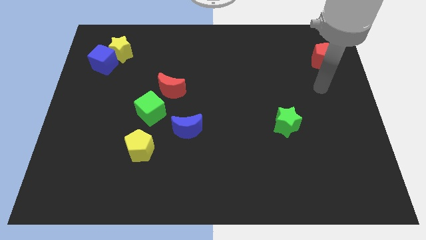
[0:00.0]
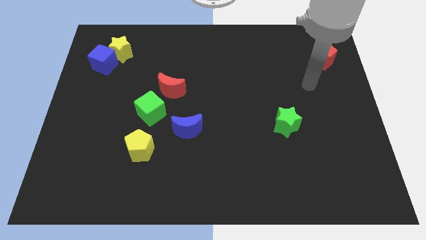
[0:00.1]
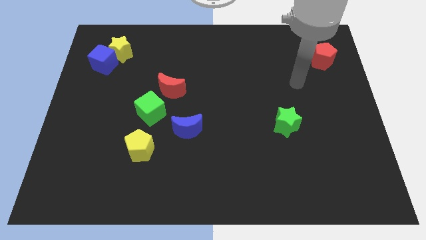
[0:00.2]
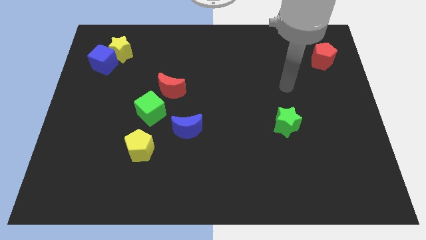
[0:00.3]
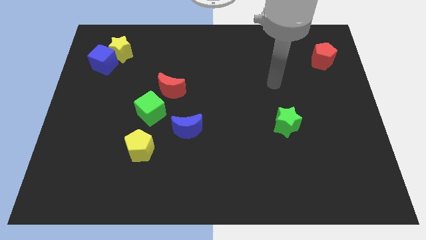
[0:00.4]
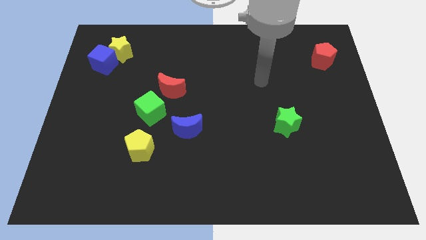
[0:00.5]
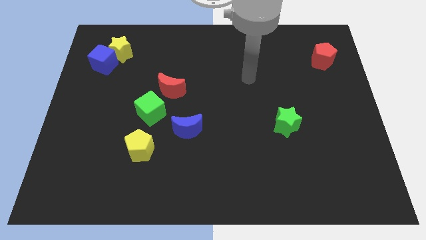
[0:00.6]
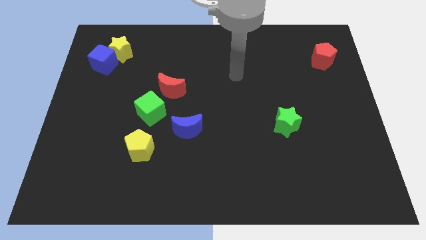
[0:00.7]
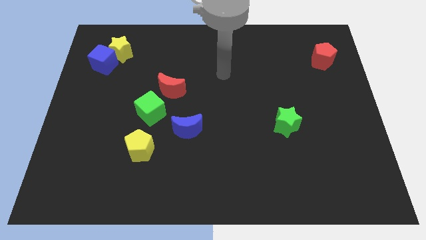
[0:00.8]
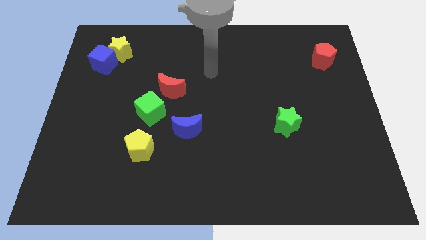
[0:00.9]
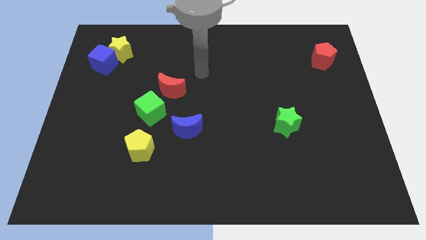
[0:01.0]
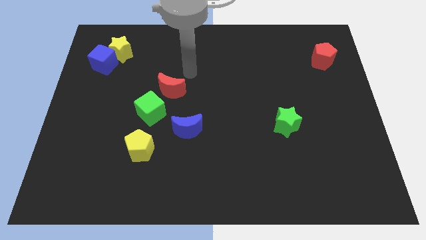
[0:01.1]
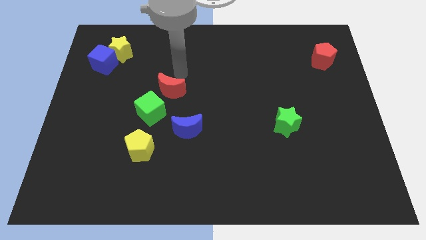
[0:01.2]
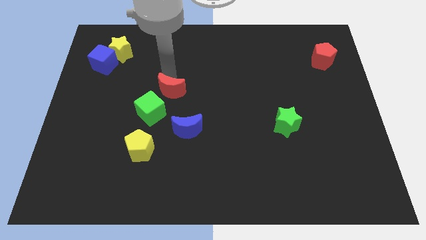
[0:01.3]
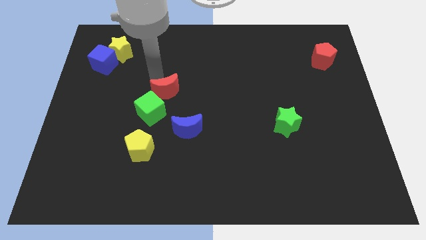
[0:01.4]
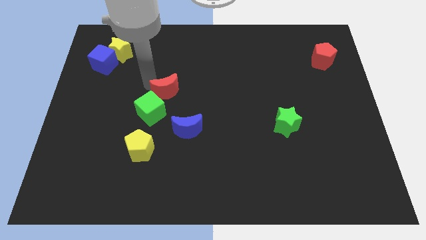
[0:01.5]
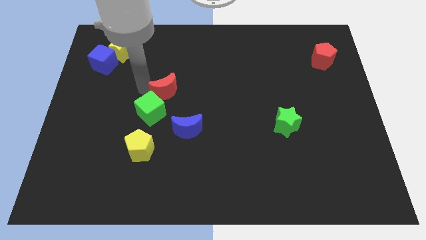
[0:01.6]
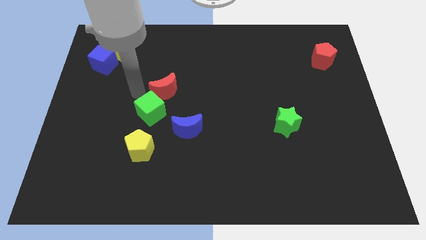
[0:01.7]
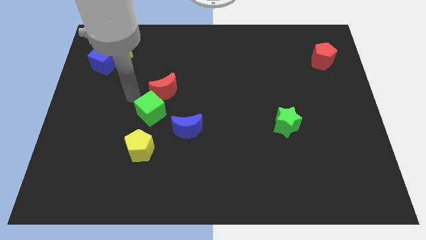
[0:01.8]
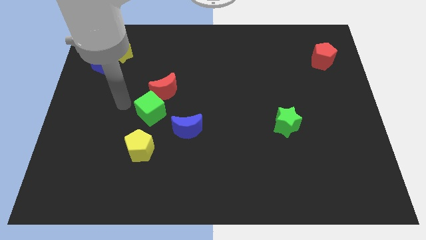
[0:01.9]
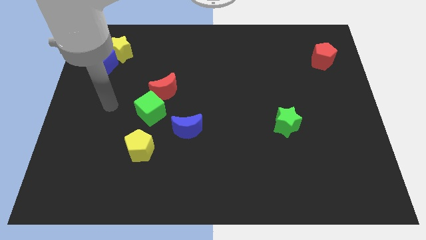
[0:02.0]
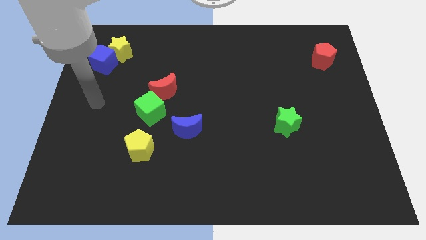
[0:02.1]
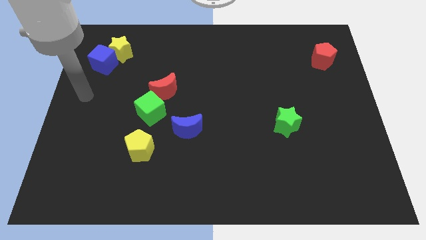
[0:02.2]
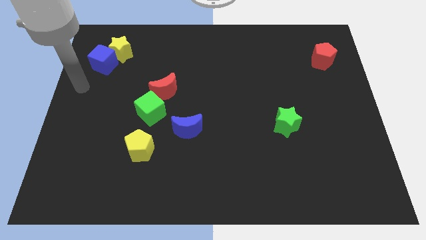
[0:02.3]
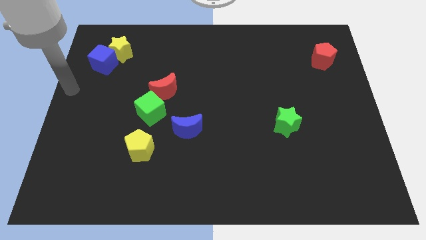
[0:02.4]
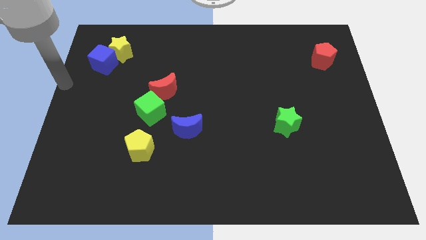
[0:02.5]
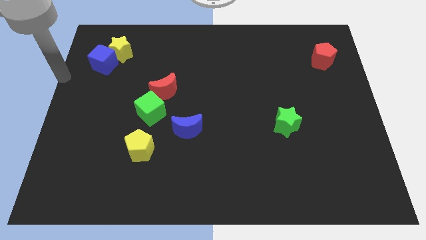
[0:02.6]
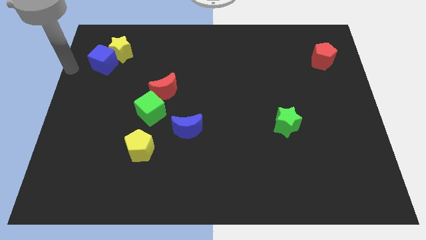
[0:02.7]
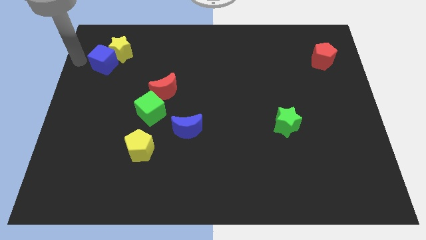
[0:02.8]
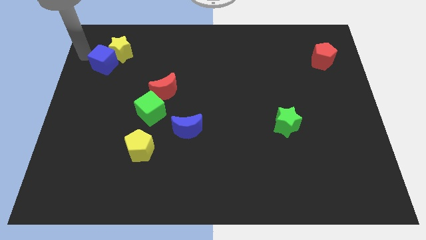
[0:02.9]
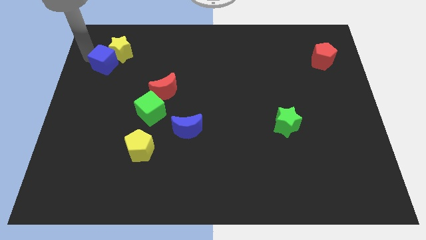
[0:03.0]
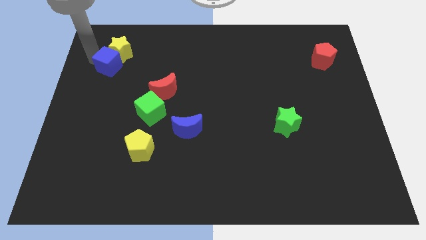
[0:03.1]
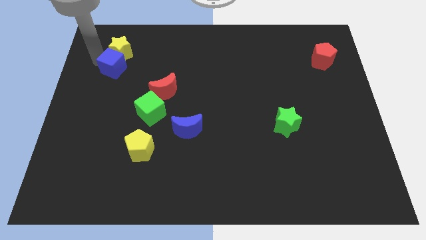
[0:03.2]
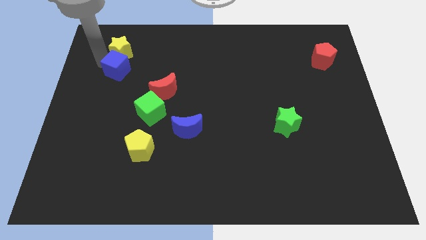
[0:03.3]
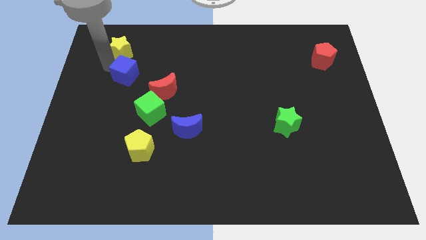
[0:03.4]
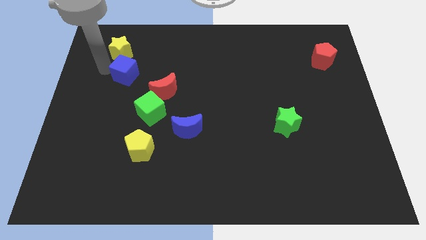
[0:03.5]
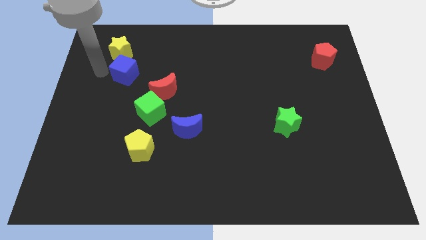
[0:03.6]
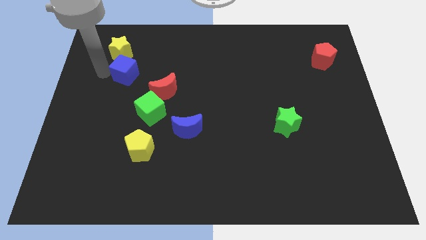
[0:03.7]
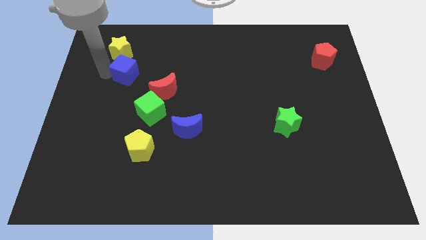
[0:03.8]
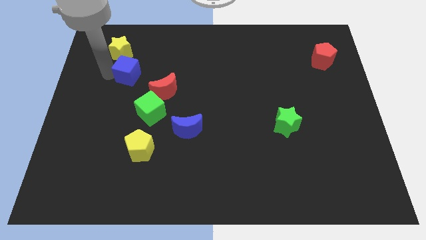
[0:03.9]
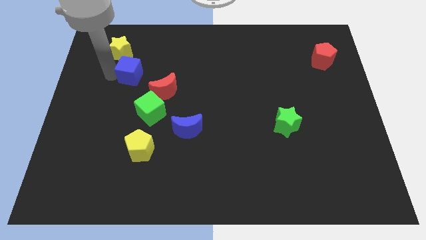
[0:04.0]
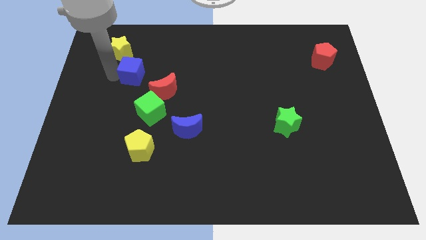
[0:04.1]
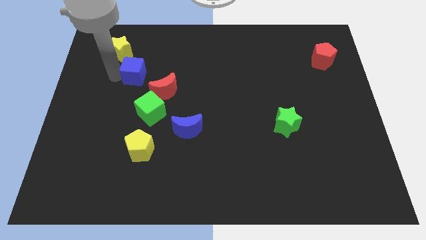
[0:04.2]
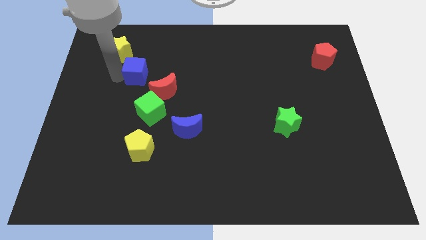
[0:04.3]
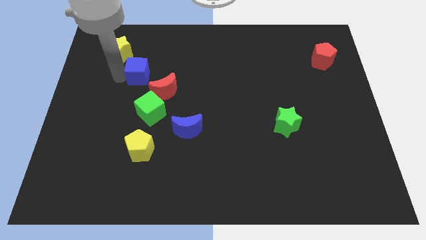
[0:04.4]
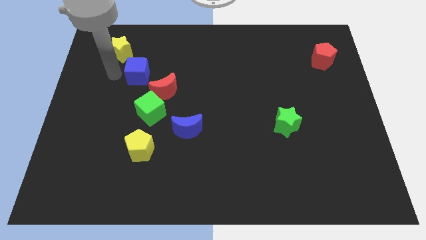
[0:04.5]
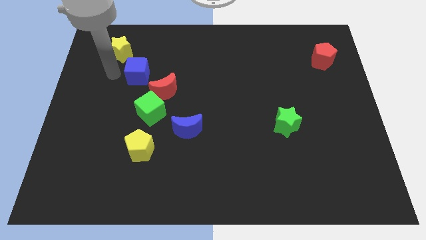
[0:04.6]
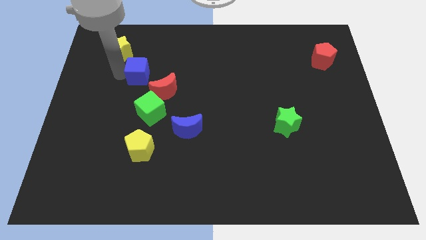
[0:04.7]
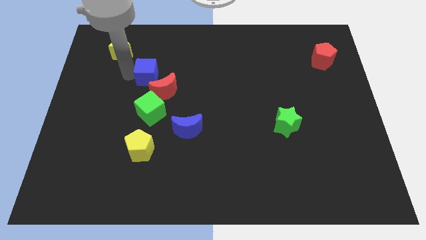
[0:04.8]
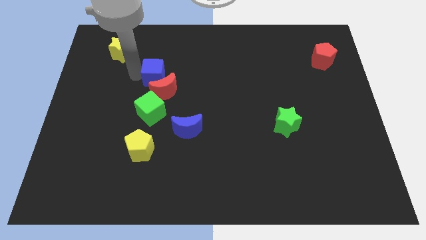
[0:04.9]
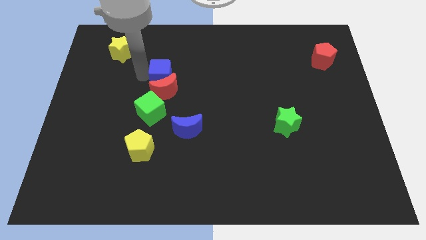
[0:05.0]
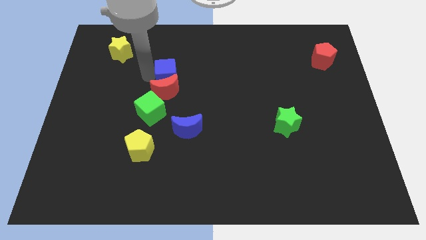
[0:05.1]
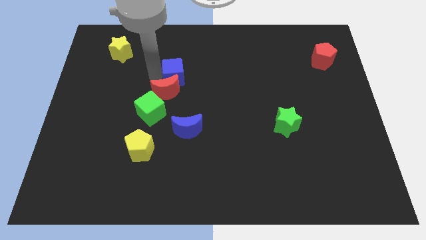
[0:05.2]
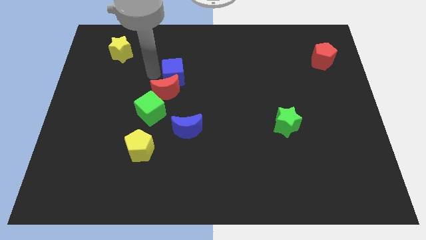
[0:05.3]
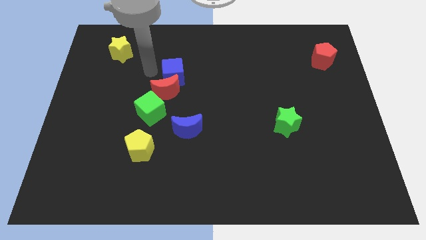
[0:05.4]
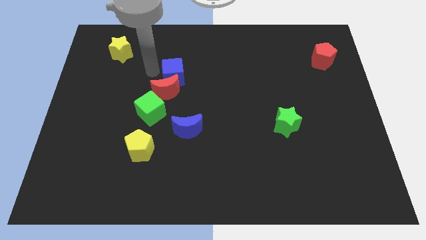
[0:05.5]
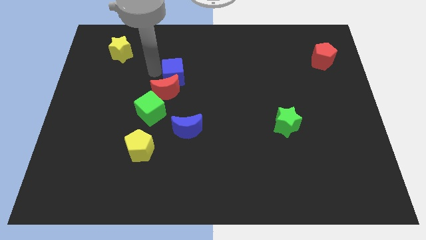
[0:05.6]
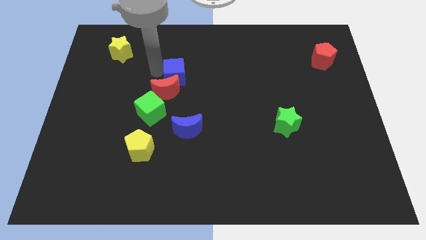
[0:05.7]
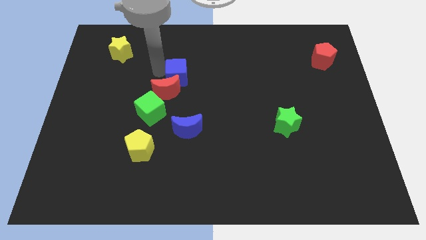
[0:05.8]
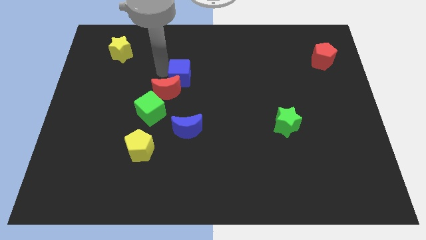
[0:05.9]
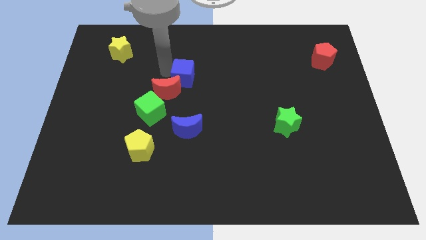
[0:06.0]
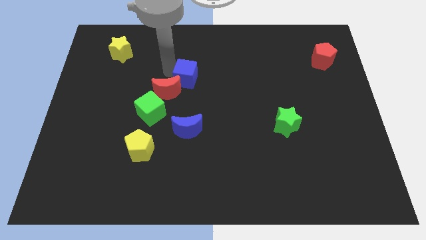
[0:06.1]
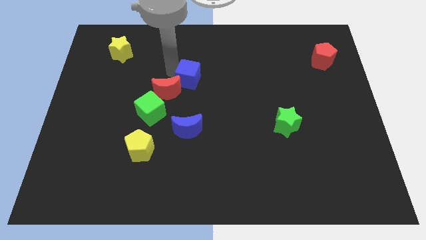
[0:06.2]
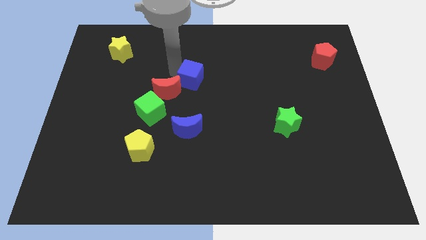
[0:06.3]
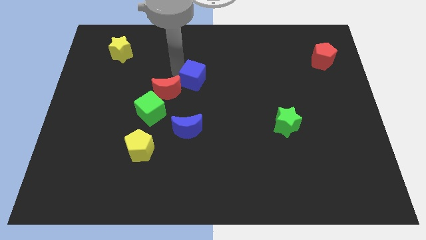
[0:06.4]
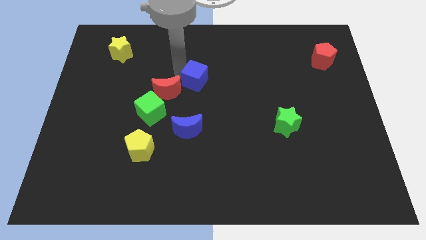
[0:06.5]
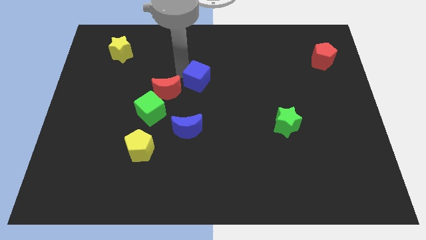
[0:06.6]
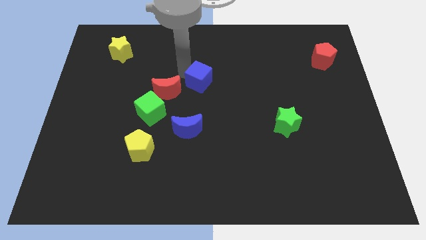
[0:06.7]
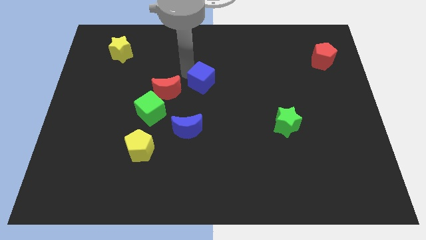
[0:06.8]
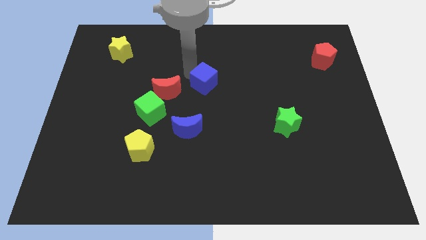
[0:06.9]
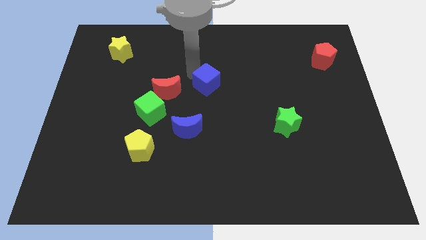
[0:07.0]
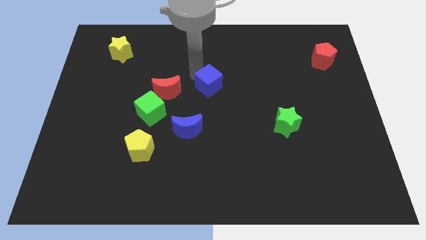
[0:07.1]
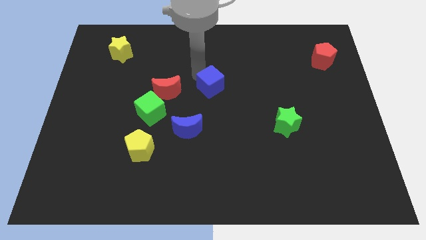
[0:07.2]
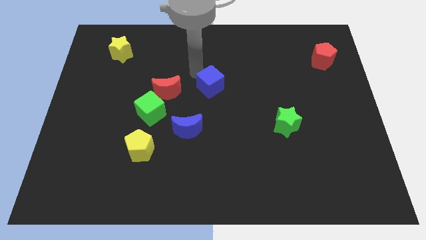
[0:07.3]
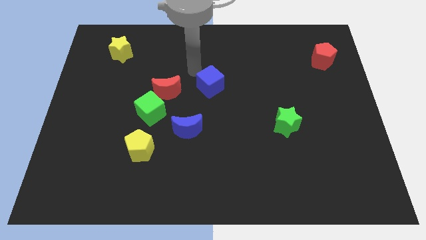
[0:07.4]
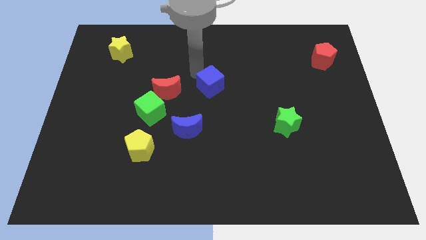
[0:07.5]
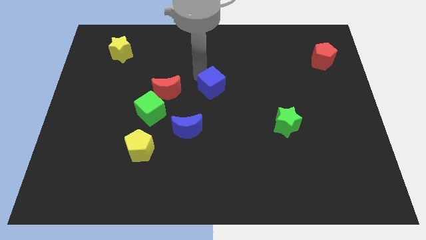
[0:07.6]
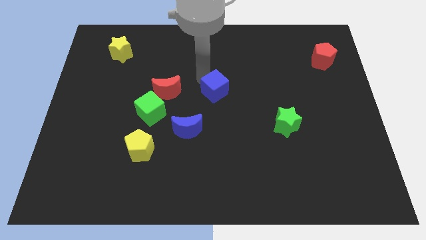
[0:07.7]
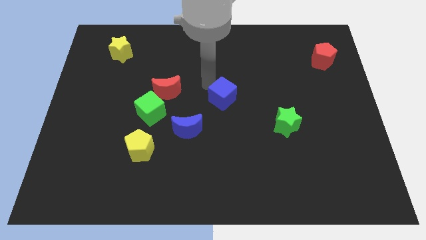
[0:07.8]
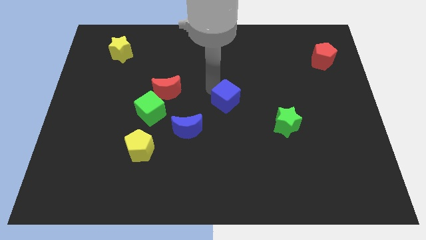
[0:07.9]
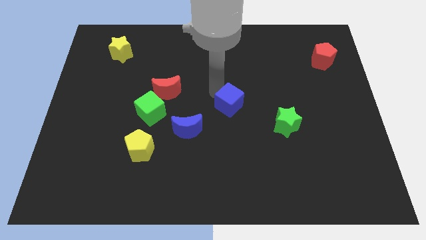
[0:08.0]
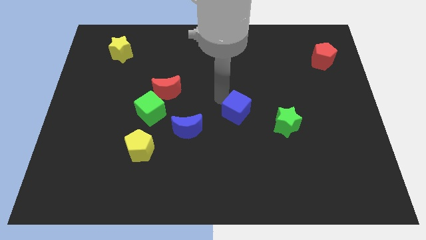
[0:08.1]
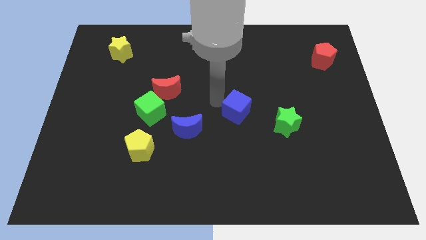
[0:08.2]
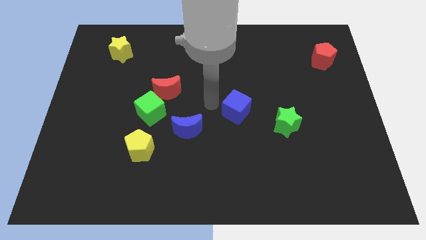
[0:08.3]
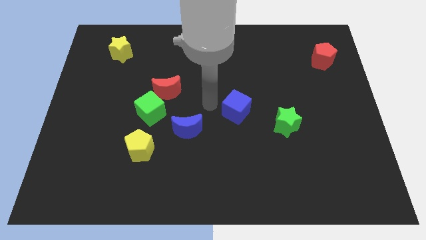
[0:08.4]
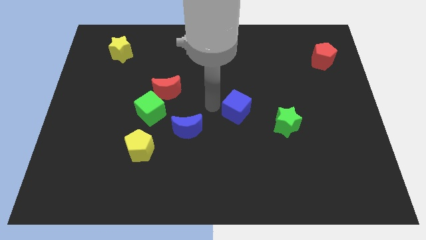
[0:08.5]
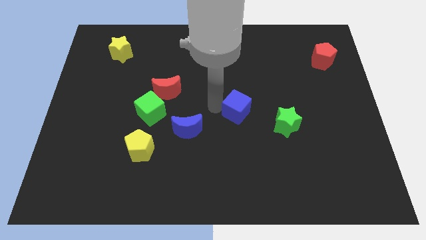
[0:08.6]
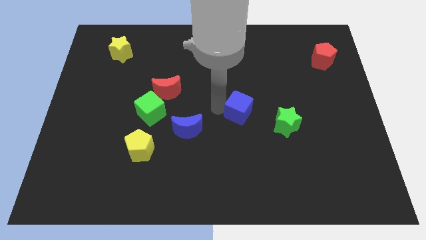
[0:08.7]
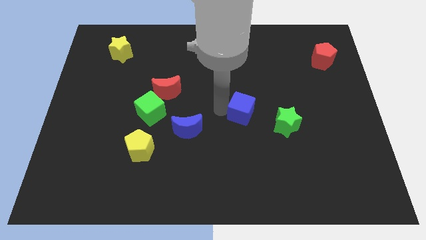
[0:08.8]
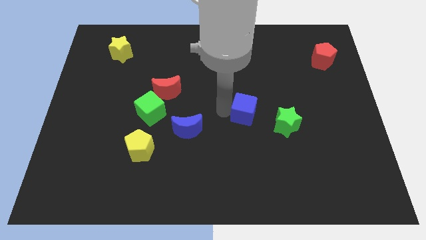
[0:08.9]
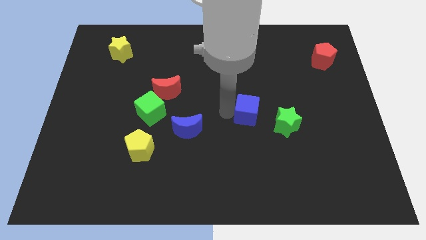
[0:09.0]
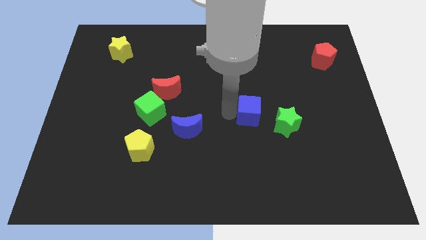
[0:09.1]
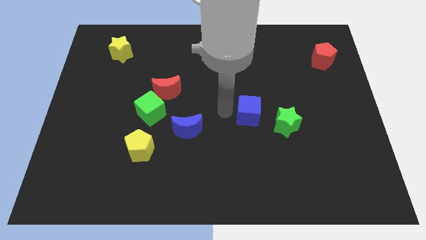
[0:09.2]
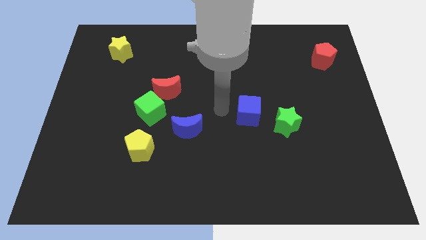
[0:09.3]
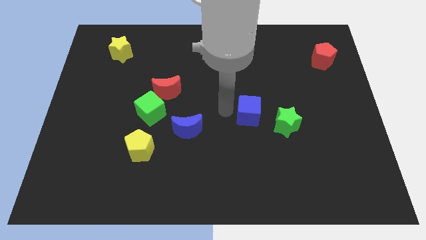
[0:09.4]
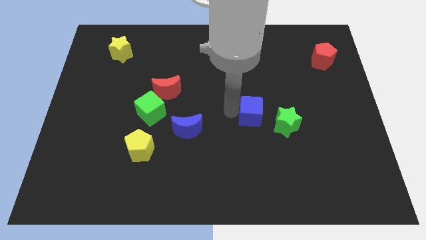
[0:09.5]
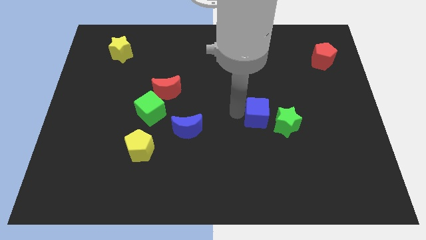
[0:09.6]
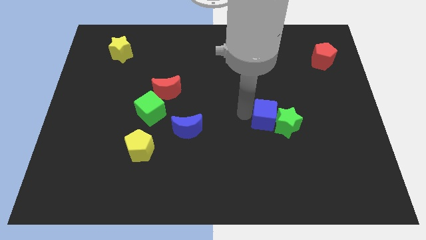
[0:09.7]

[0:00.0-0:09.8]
slide the blue cube next to the green star
